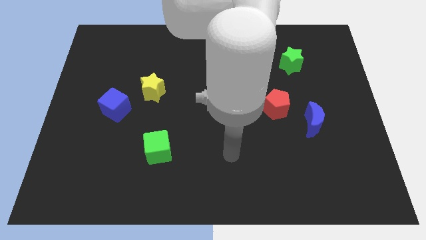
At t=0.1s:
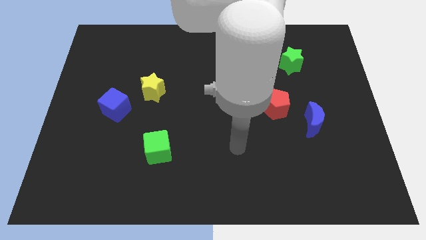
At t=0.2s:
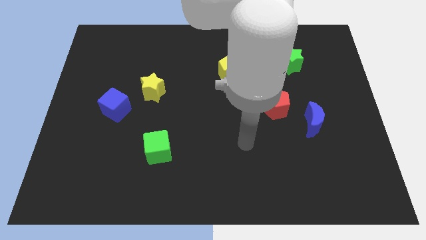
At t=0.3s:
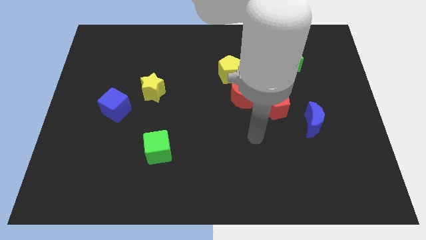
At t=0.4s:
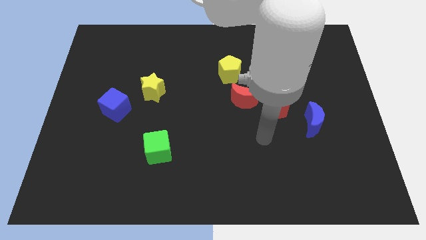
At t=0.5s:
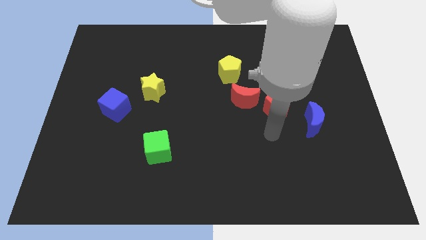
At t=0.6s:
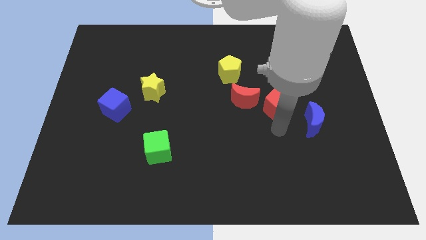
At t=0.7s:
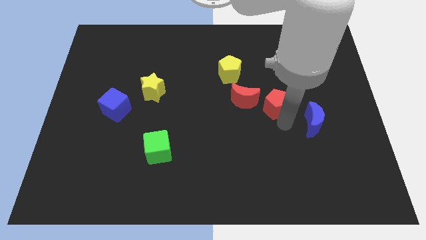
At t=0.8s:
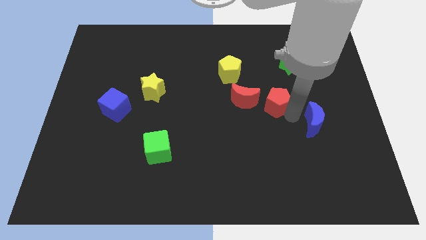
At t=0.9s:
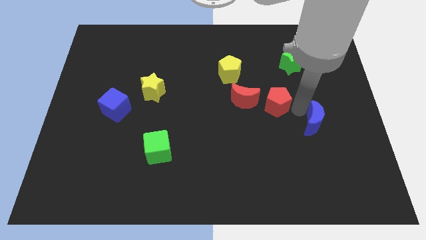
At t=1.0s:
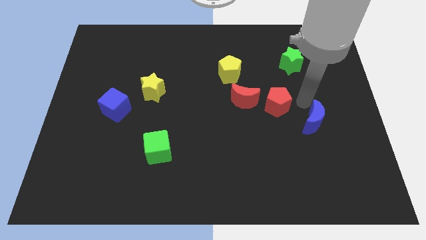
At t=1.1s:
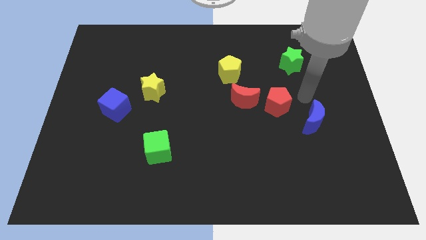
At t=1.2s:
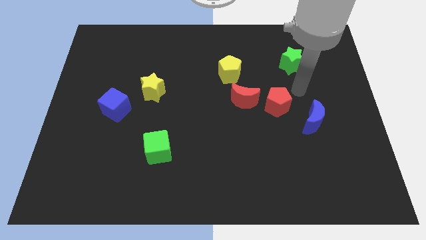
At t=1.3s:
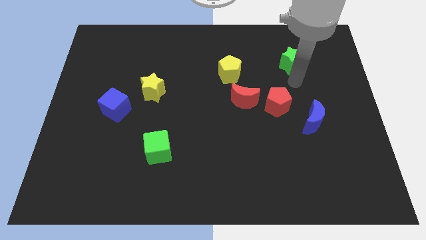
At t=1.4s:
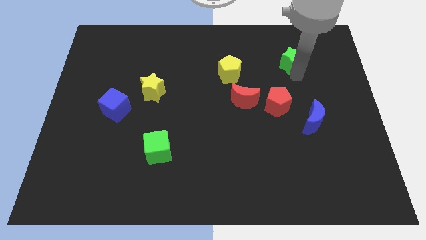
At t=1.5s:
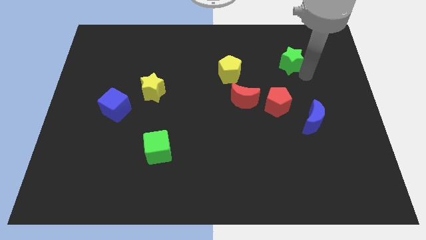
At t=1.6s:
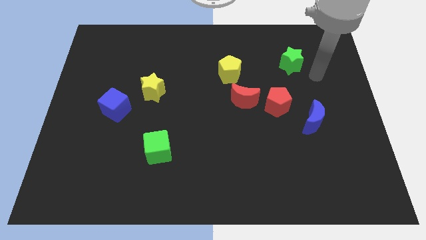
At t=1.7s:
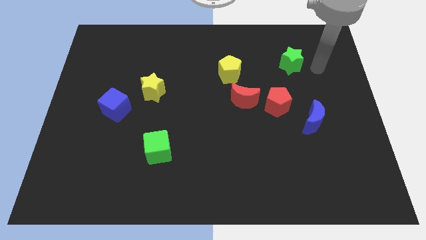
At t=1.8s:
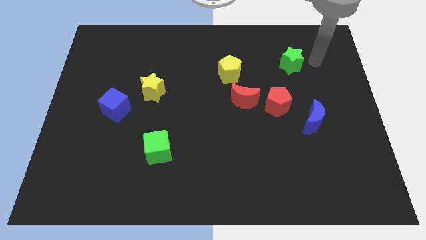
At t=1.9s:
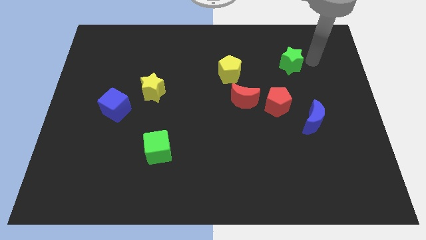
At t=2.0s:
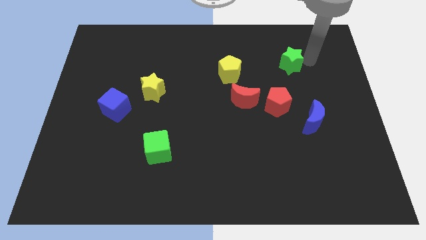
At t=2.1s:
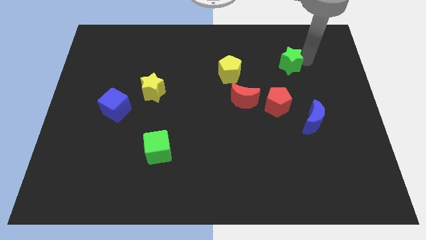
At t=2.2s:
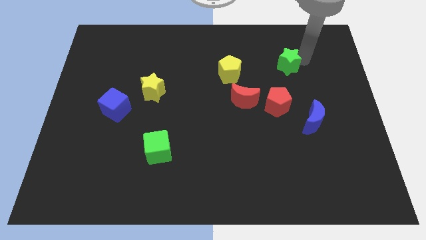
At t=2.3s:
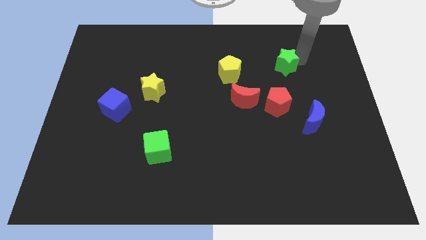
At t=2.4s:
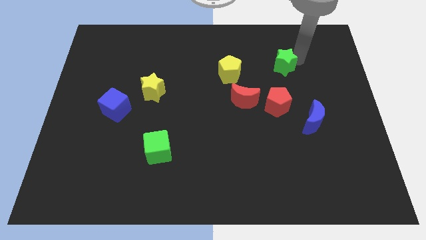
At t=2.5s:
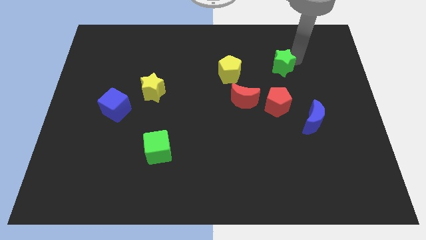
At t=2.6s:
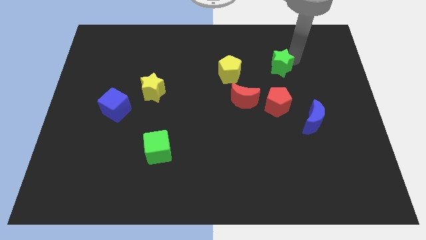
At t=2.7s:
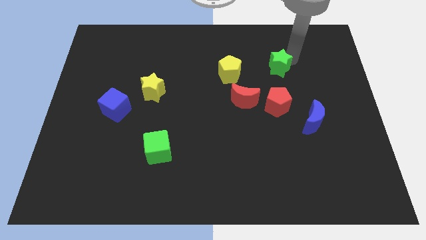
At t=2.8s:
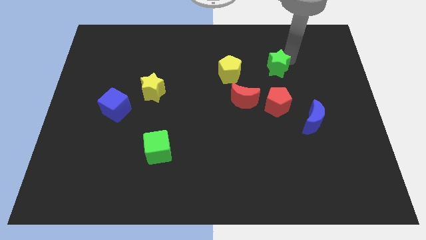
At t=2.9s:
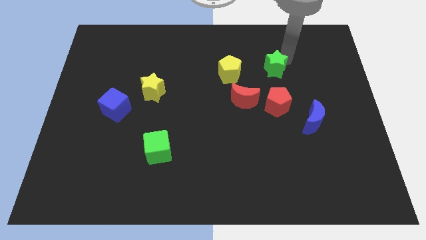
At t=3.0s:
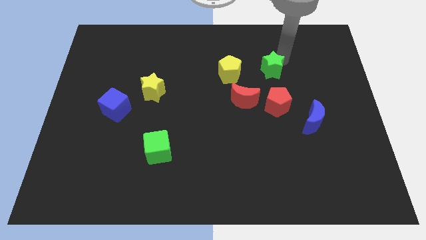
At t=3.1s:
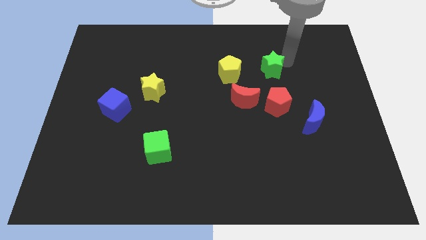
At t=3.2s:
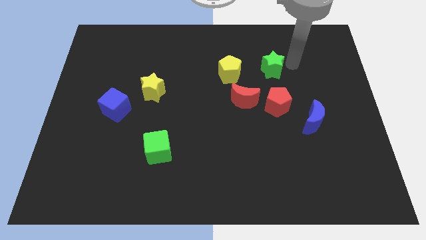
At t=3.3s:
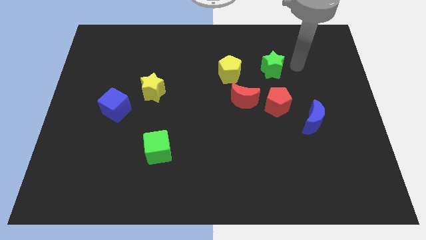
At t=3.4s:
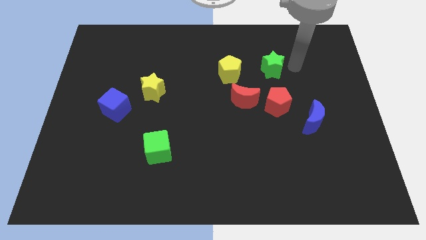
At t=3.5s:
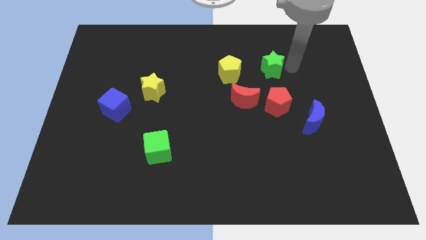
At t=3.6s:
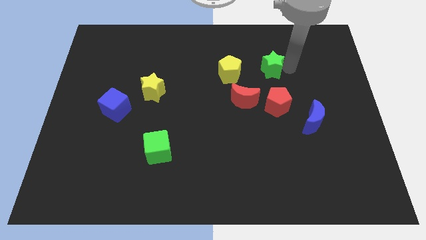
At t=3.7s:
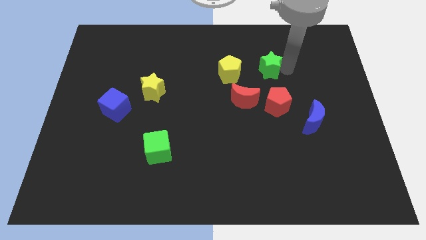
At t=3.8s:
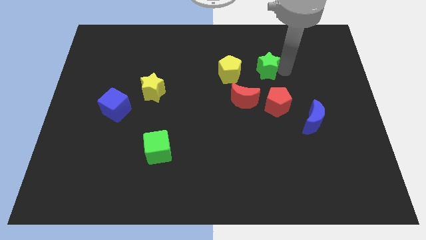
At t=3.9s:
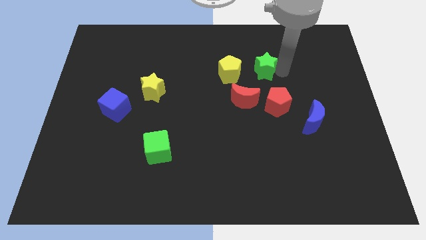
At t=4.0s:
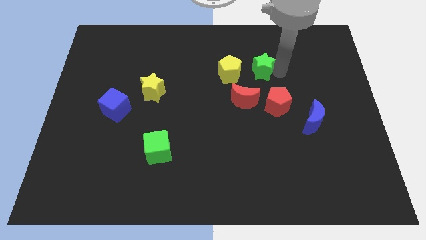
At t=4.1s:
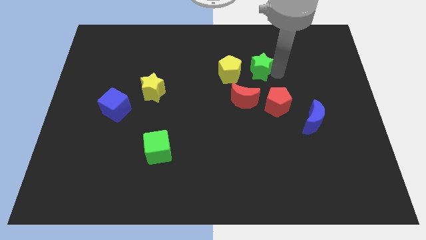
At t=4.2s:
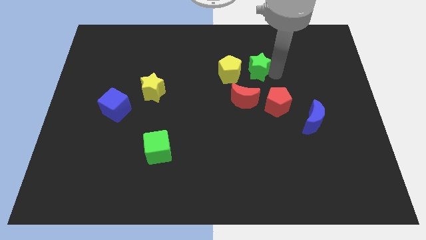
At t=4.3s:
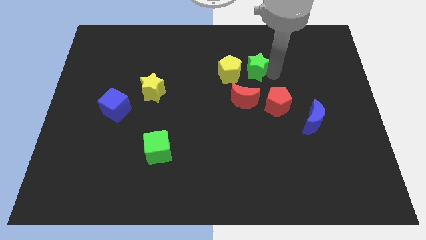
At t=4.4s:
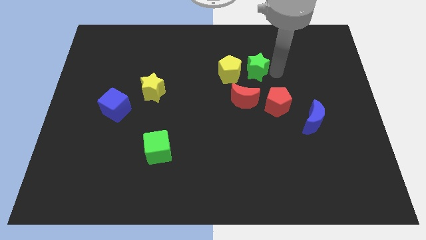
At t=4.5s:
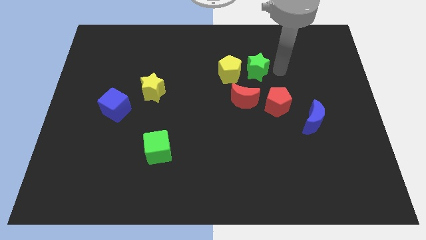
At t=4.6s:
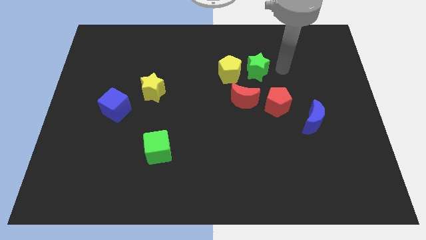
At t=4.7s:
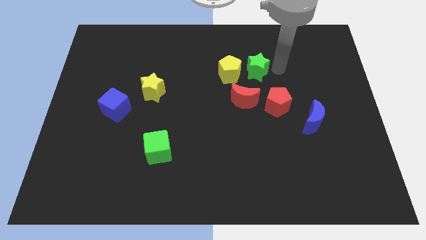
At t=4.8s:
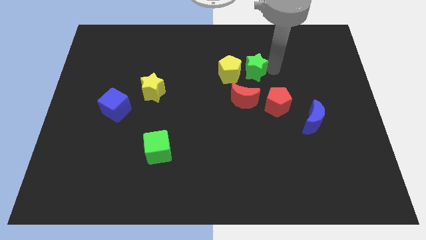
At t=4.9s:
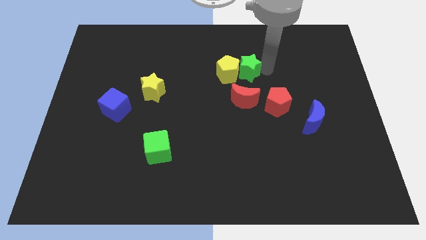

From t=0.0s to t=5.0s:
push the green star towards the yellow pentagon

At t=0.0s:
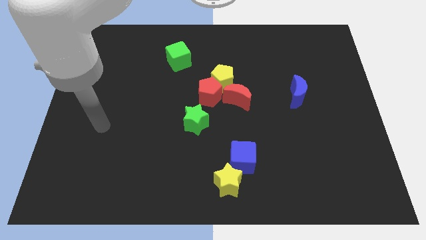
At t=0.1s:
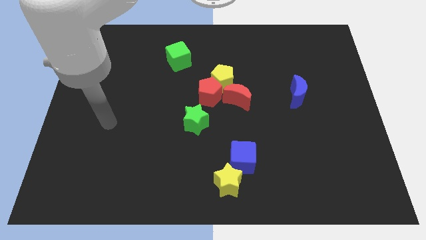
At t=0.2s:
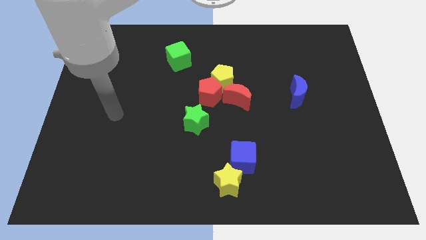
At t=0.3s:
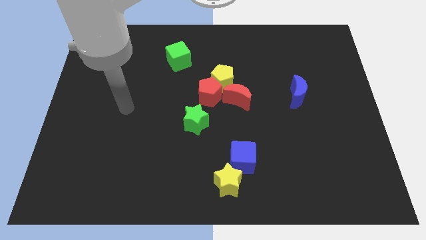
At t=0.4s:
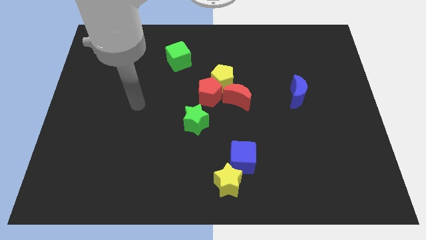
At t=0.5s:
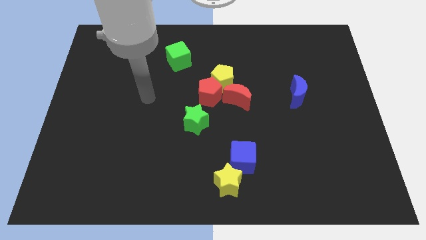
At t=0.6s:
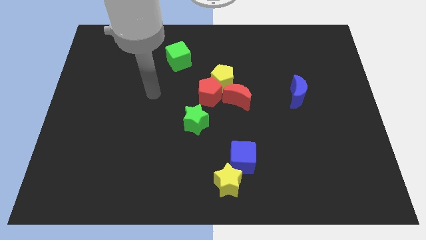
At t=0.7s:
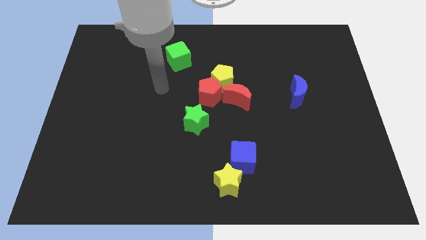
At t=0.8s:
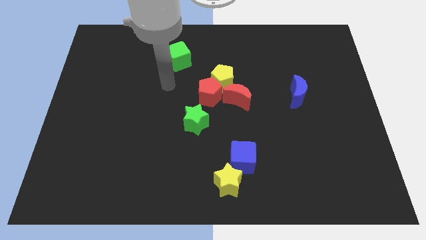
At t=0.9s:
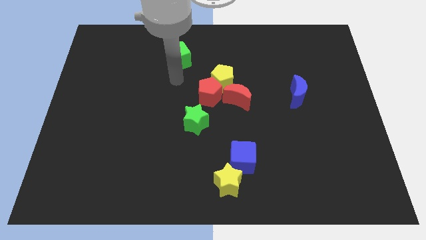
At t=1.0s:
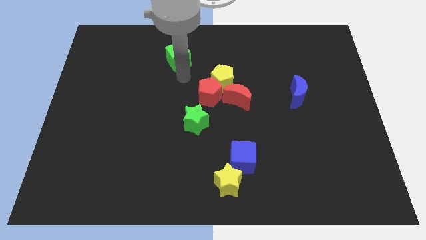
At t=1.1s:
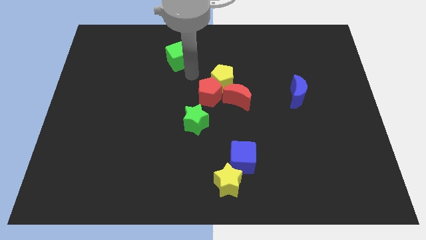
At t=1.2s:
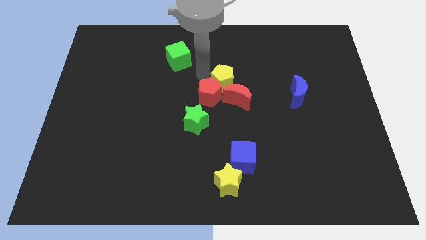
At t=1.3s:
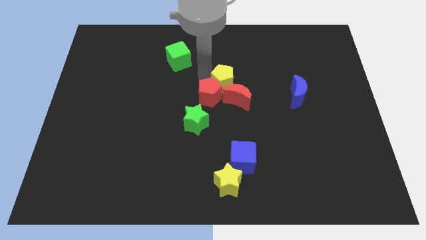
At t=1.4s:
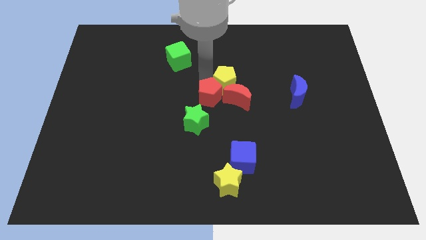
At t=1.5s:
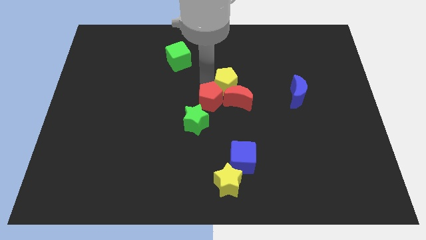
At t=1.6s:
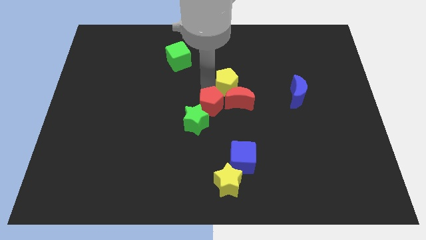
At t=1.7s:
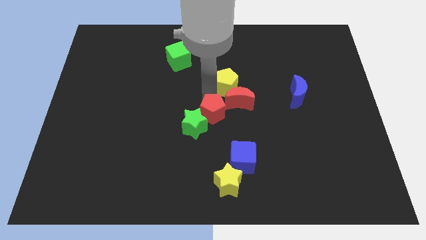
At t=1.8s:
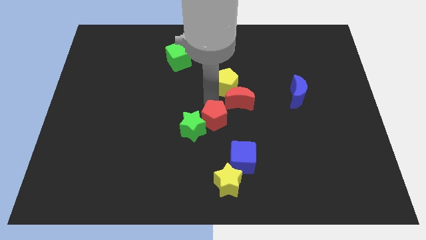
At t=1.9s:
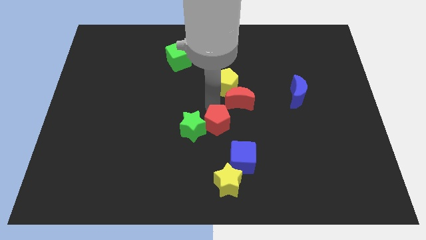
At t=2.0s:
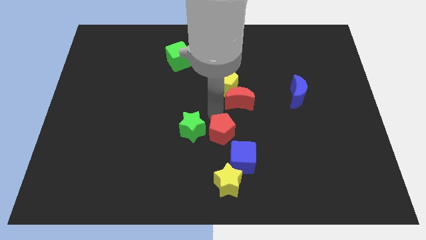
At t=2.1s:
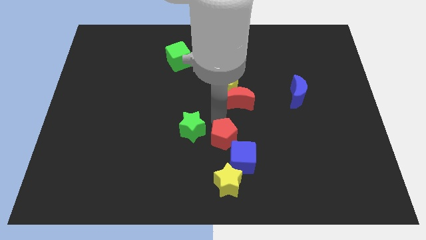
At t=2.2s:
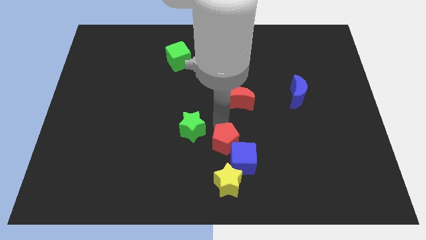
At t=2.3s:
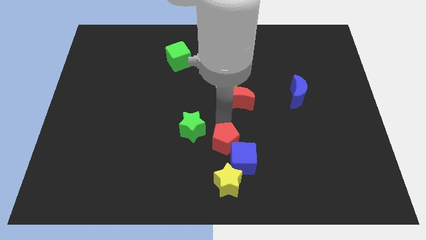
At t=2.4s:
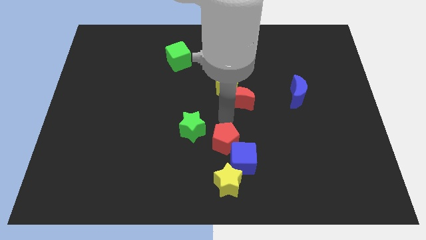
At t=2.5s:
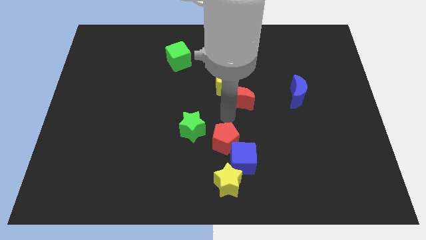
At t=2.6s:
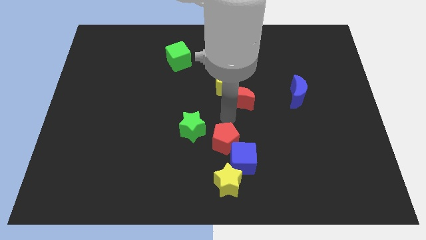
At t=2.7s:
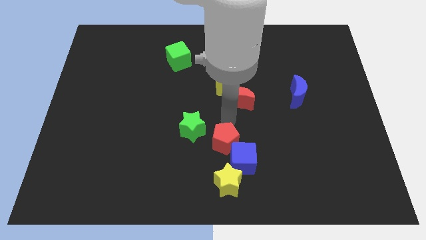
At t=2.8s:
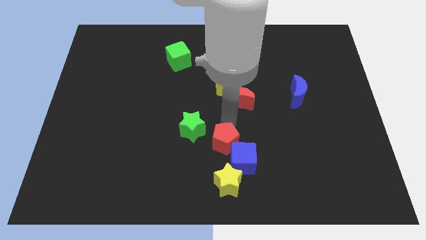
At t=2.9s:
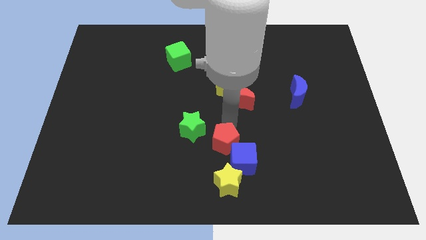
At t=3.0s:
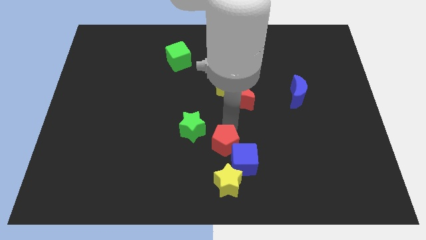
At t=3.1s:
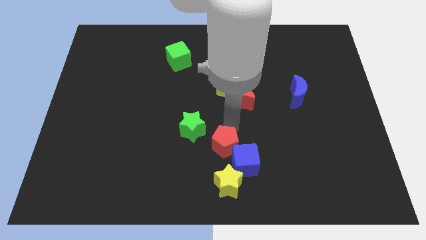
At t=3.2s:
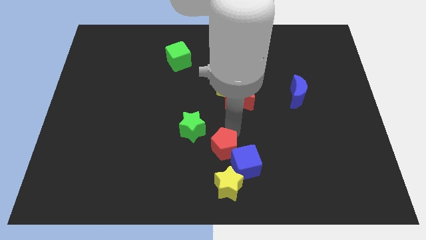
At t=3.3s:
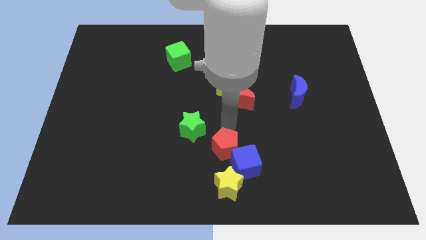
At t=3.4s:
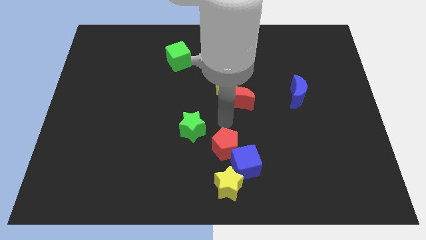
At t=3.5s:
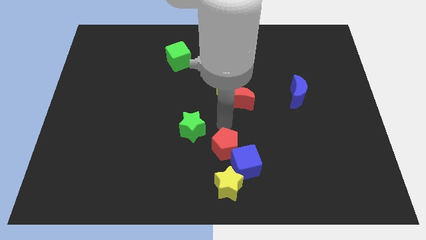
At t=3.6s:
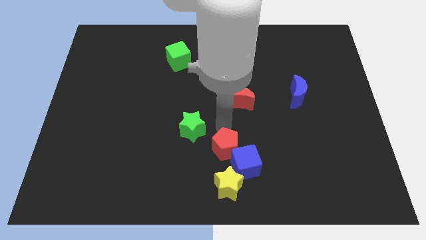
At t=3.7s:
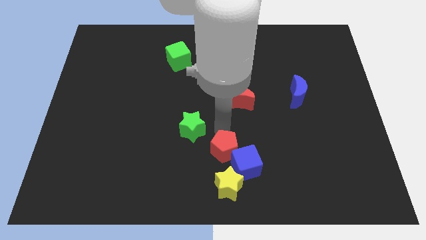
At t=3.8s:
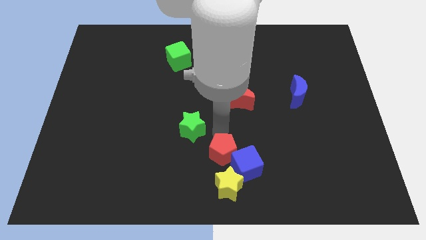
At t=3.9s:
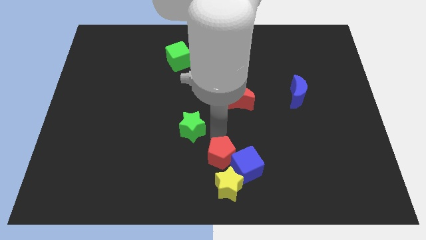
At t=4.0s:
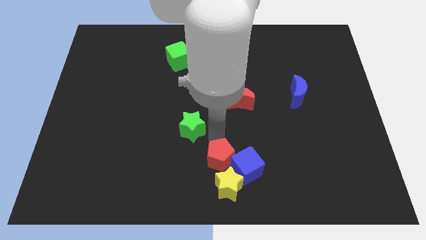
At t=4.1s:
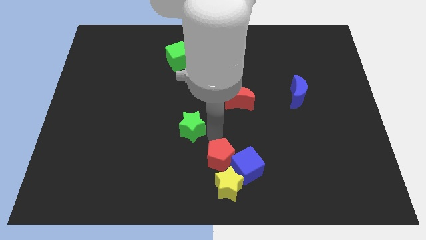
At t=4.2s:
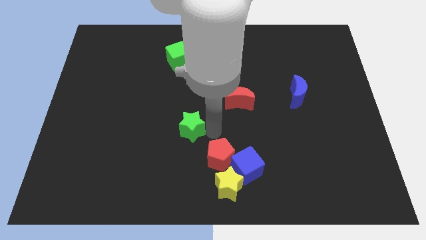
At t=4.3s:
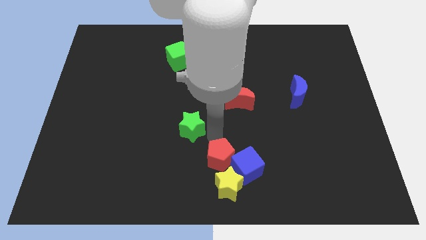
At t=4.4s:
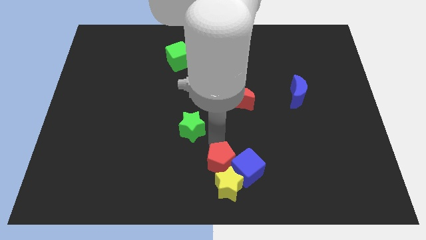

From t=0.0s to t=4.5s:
put the red pentagon to the yellow star
